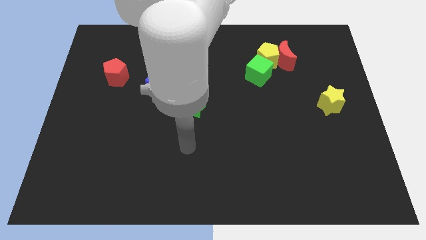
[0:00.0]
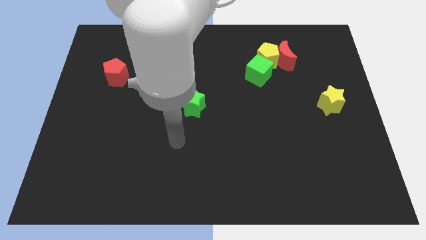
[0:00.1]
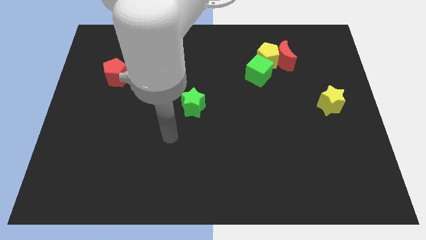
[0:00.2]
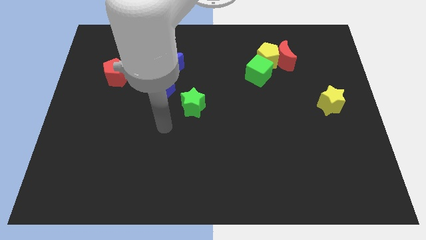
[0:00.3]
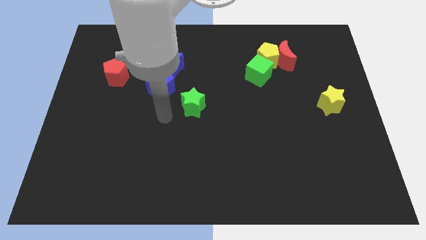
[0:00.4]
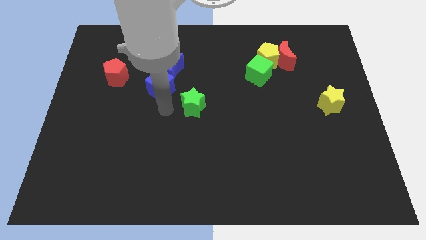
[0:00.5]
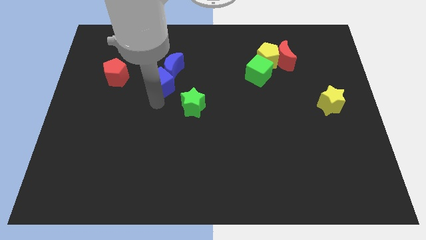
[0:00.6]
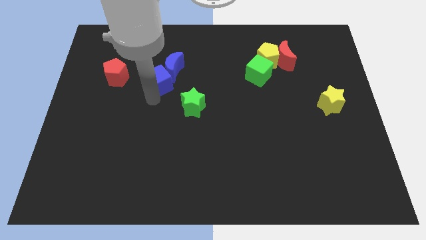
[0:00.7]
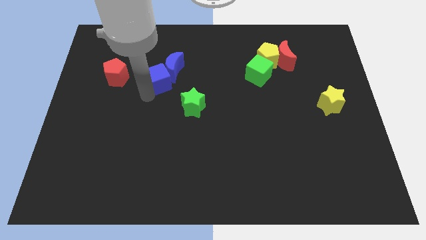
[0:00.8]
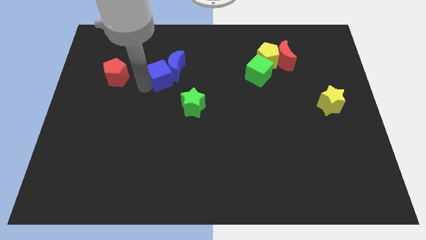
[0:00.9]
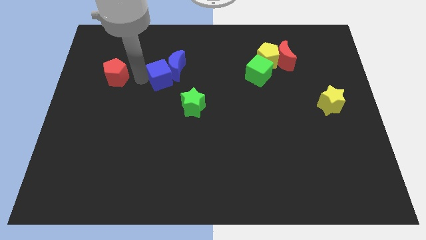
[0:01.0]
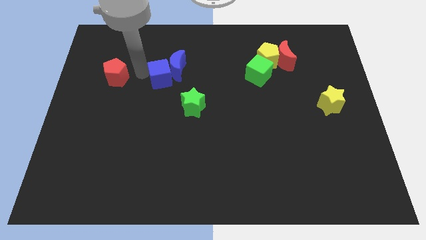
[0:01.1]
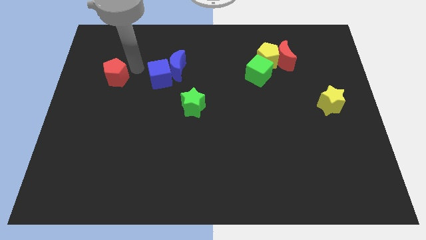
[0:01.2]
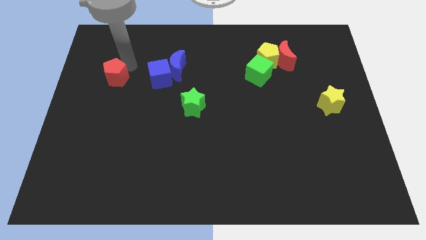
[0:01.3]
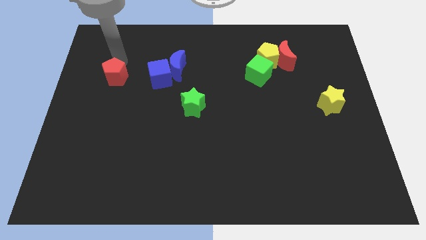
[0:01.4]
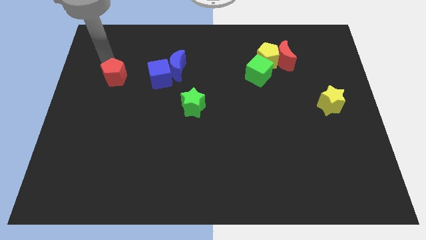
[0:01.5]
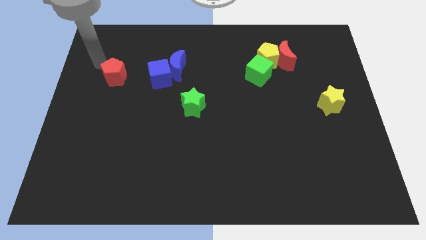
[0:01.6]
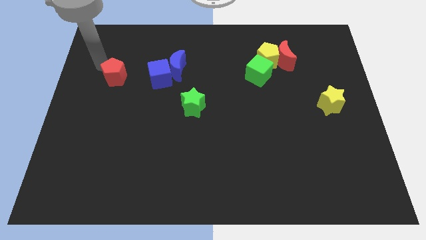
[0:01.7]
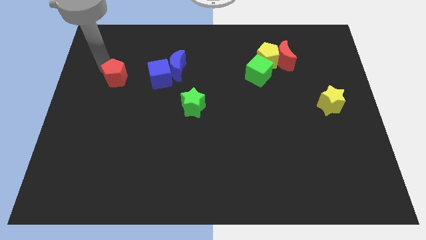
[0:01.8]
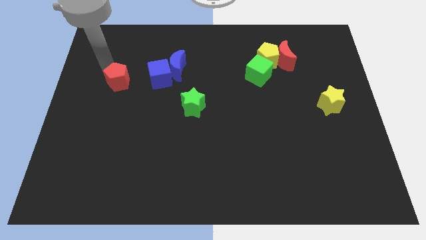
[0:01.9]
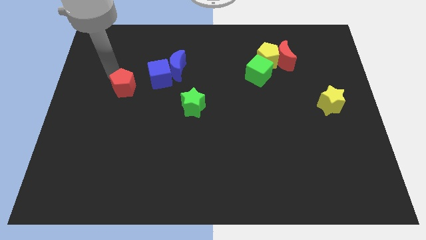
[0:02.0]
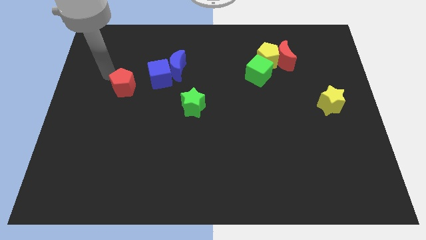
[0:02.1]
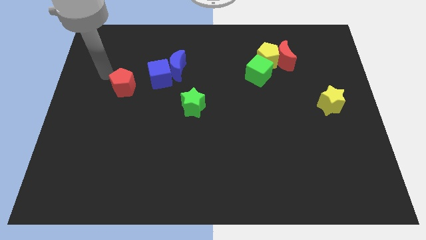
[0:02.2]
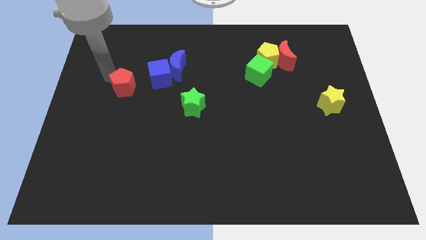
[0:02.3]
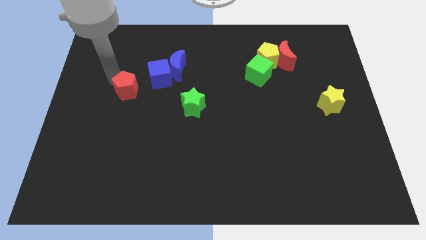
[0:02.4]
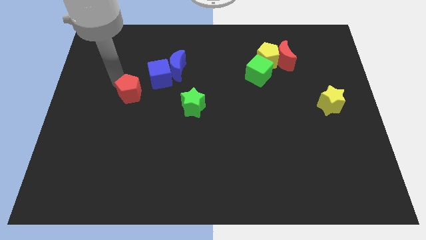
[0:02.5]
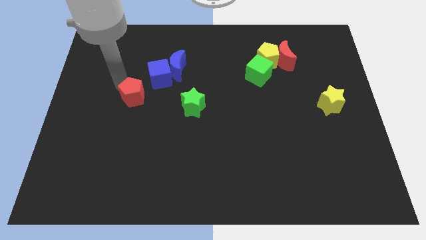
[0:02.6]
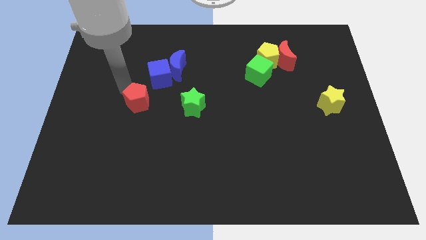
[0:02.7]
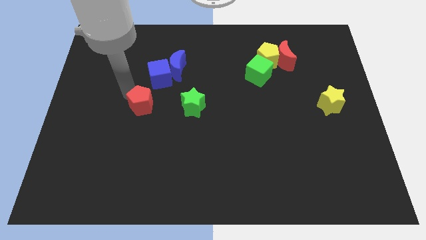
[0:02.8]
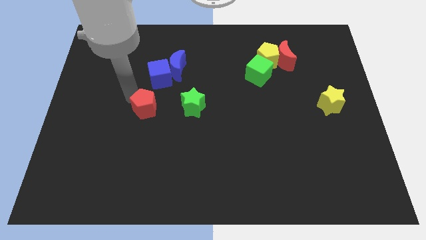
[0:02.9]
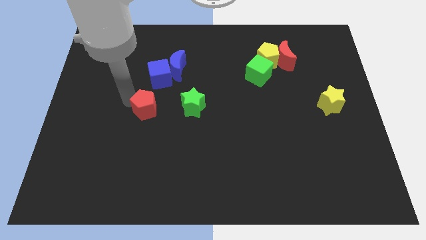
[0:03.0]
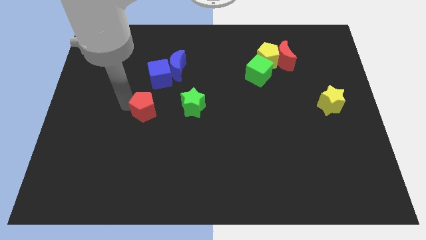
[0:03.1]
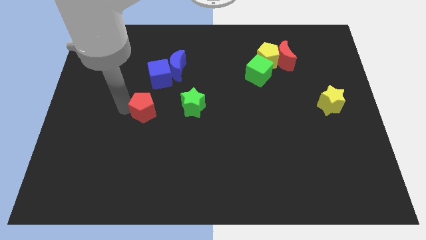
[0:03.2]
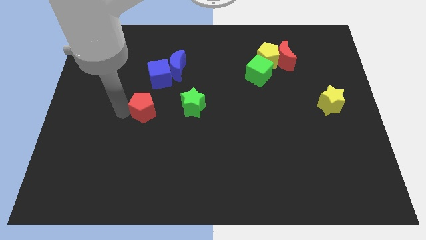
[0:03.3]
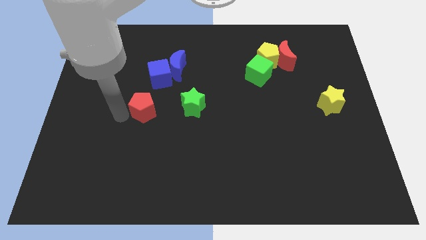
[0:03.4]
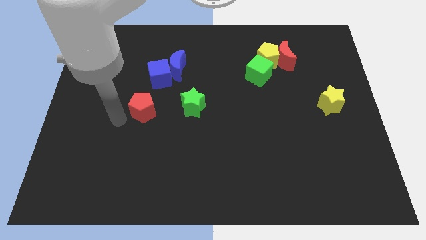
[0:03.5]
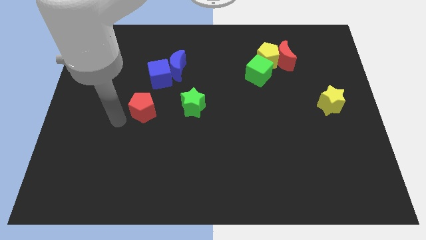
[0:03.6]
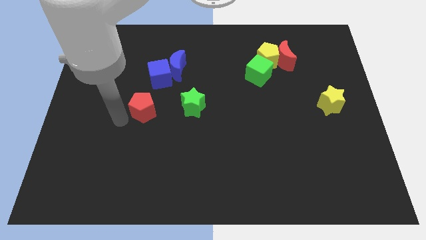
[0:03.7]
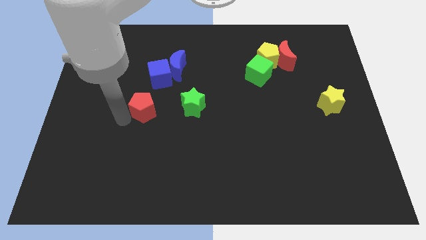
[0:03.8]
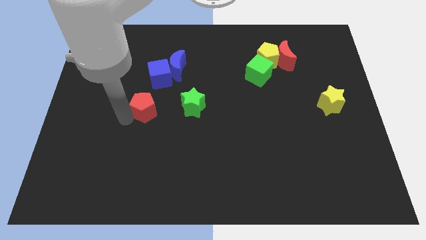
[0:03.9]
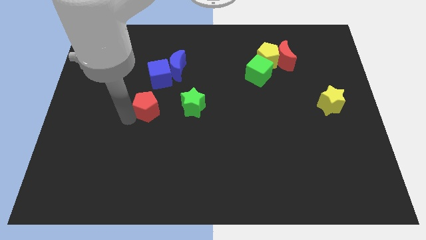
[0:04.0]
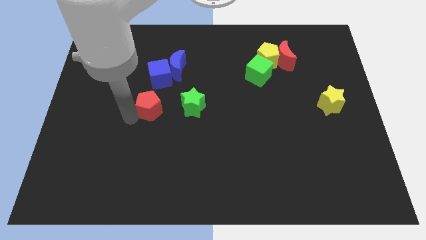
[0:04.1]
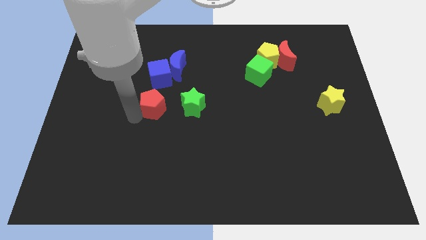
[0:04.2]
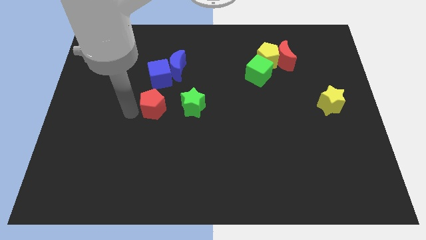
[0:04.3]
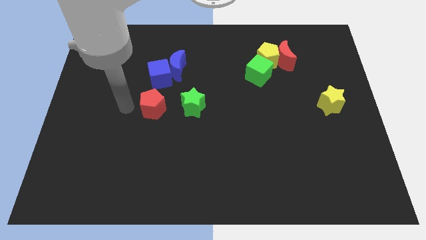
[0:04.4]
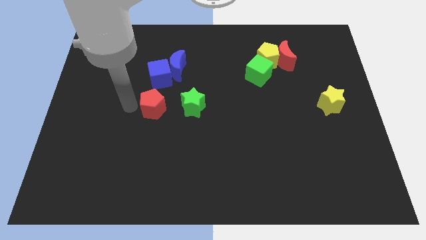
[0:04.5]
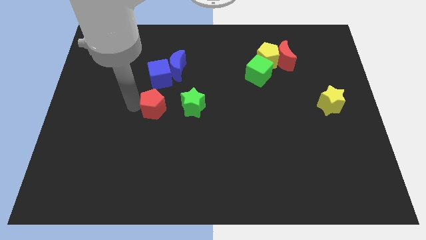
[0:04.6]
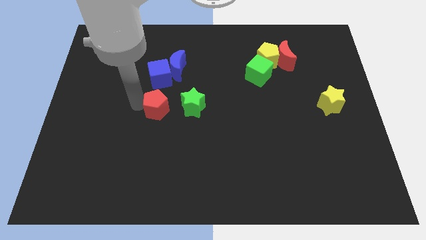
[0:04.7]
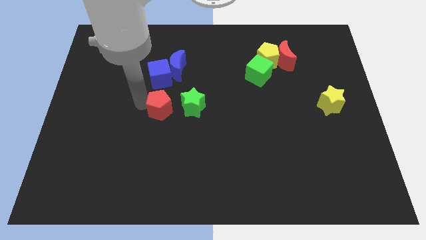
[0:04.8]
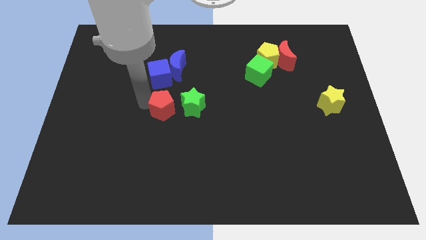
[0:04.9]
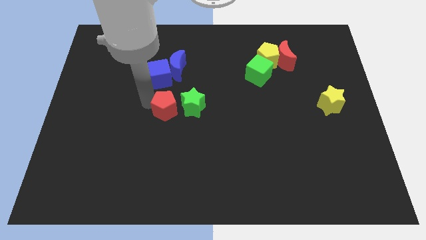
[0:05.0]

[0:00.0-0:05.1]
slide the red pentagon next to the green star

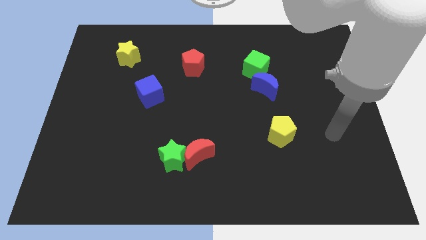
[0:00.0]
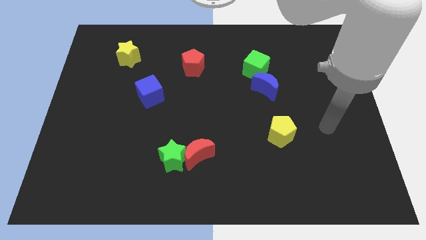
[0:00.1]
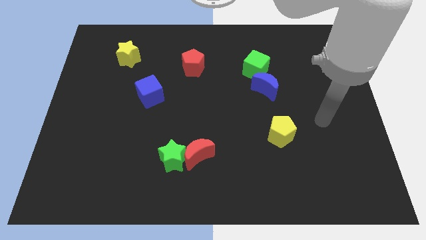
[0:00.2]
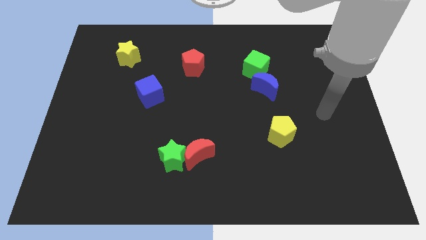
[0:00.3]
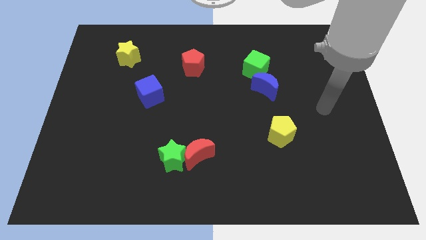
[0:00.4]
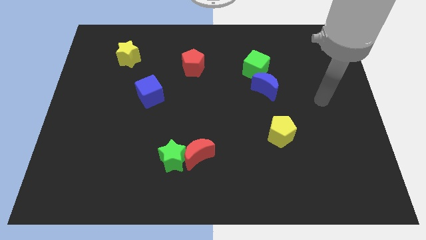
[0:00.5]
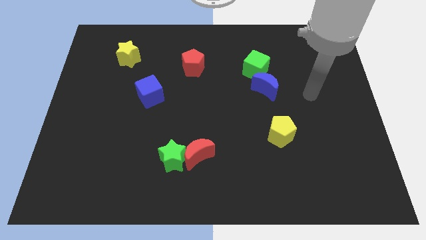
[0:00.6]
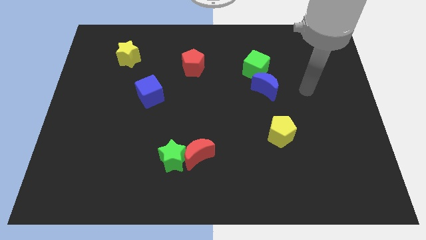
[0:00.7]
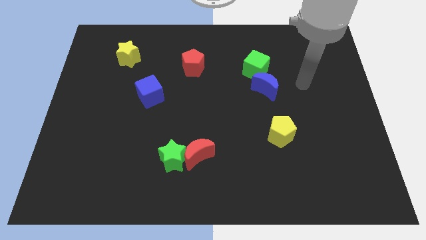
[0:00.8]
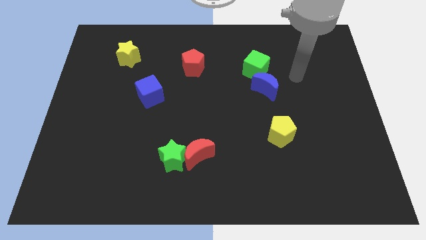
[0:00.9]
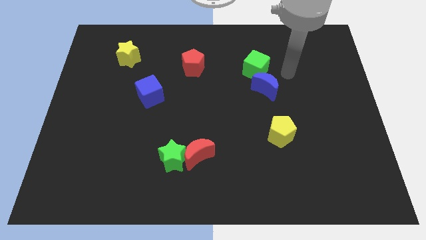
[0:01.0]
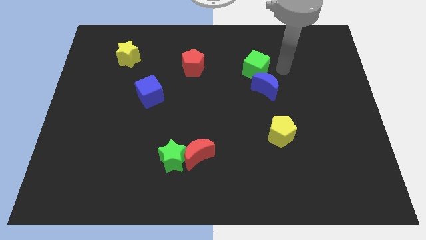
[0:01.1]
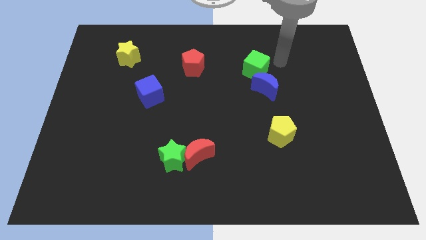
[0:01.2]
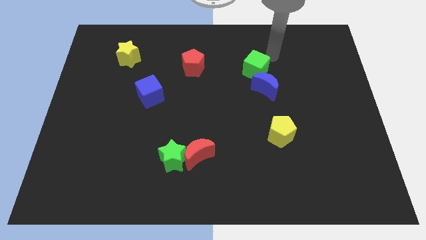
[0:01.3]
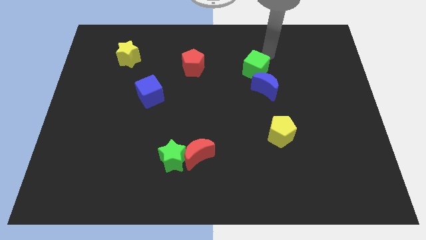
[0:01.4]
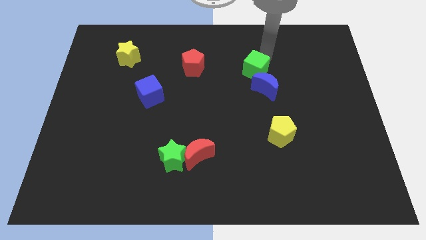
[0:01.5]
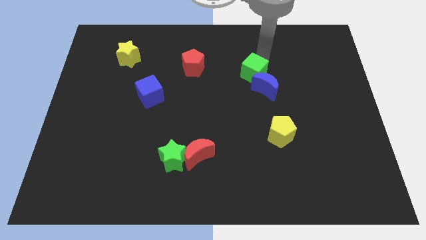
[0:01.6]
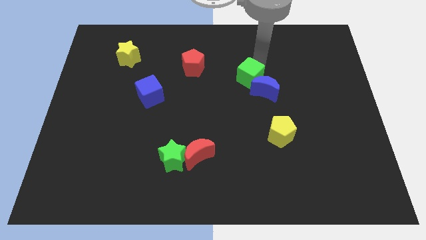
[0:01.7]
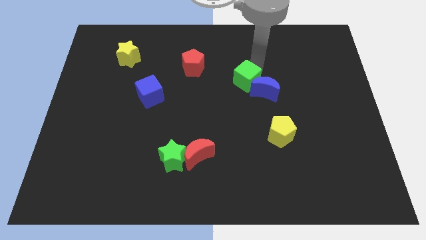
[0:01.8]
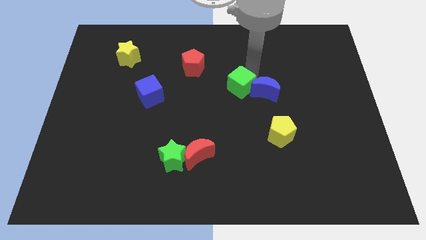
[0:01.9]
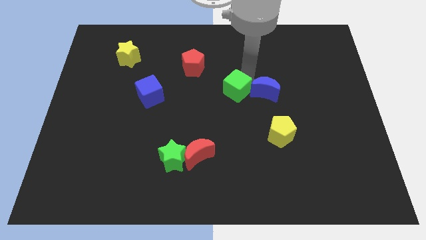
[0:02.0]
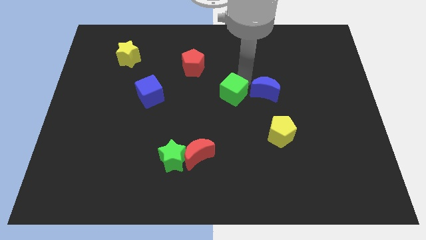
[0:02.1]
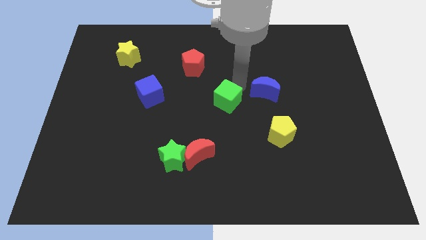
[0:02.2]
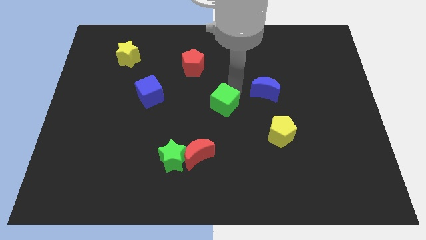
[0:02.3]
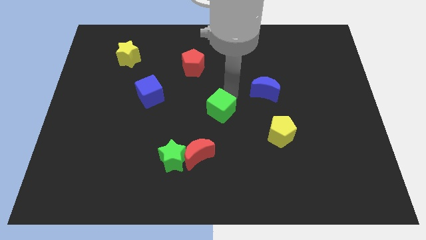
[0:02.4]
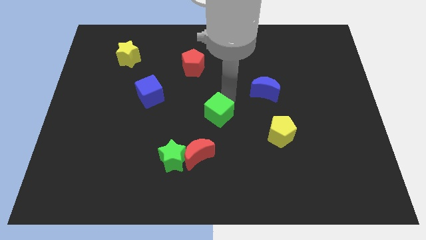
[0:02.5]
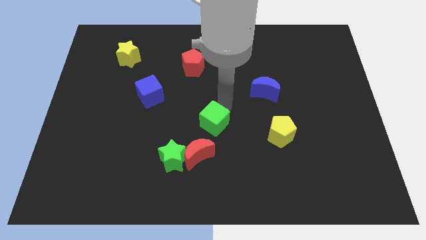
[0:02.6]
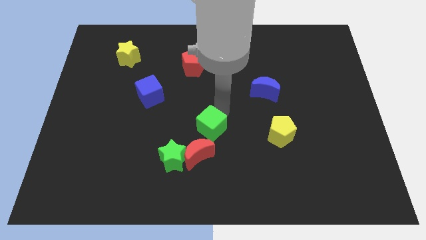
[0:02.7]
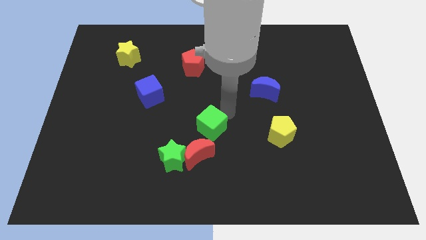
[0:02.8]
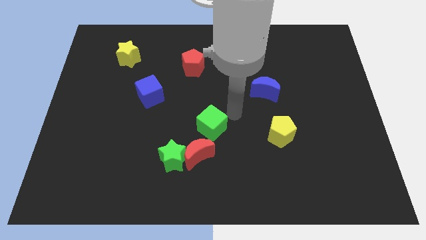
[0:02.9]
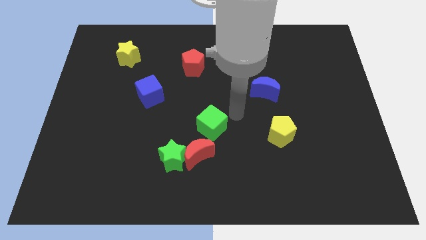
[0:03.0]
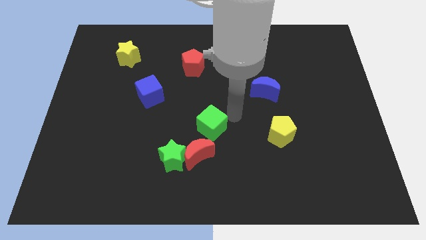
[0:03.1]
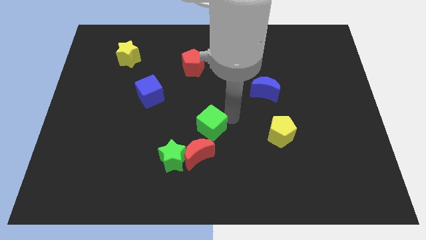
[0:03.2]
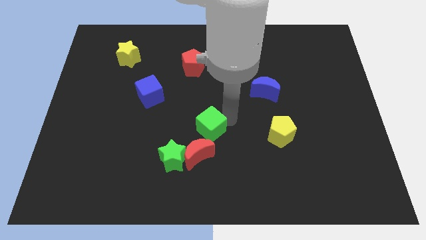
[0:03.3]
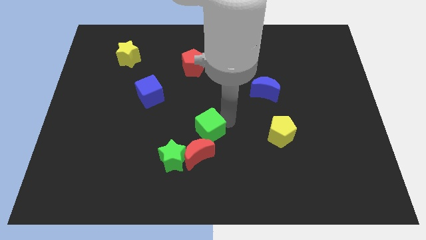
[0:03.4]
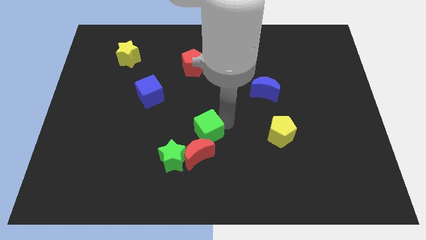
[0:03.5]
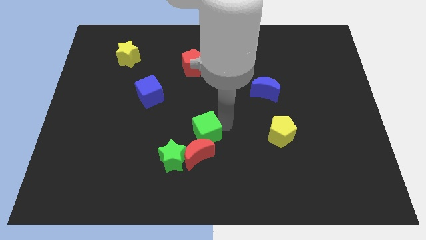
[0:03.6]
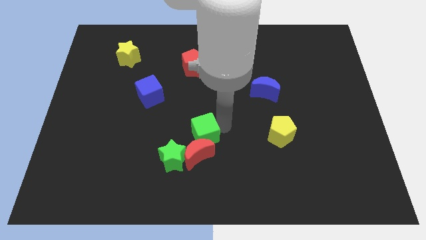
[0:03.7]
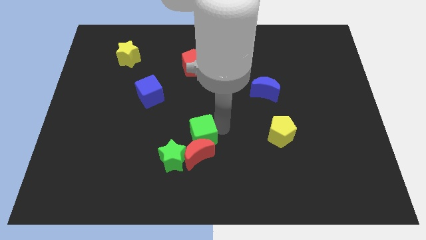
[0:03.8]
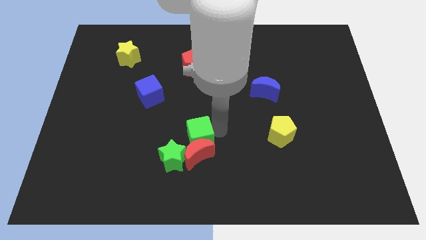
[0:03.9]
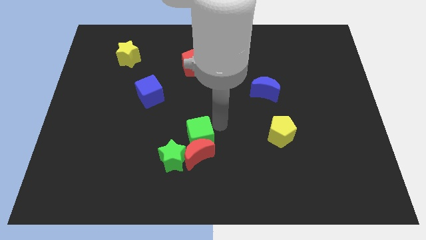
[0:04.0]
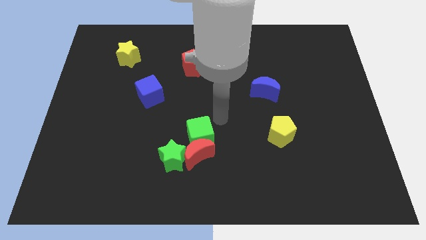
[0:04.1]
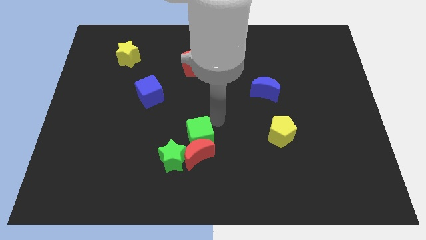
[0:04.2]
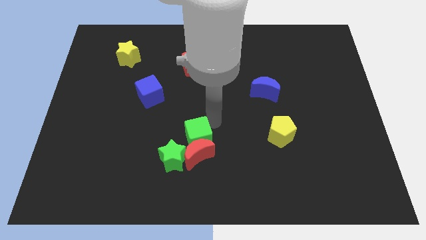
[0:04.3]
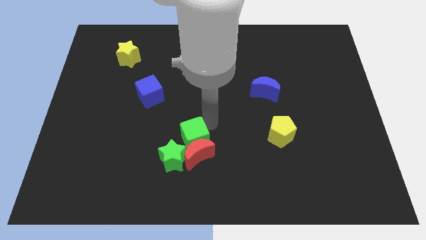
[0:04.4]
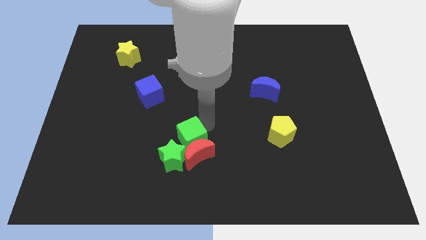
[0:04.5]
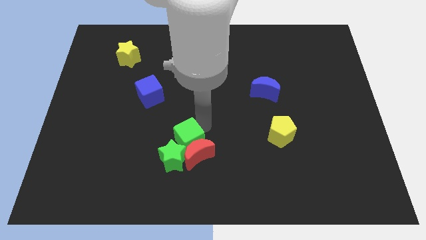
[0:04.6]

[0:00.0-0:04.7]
put the green cube next to the green star
